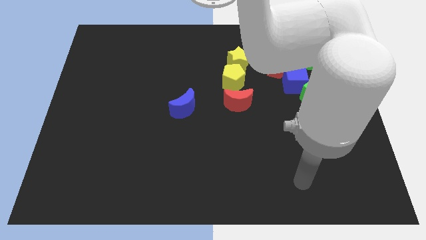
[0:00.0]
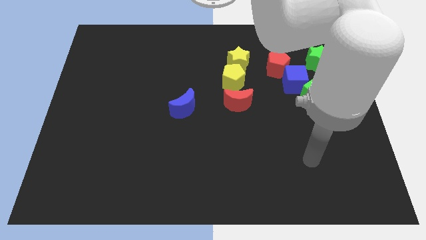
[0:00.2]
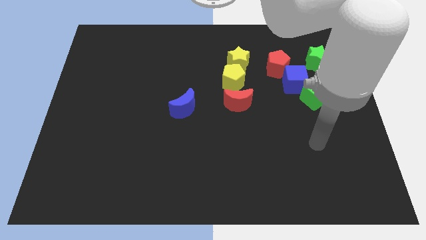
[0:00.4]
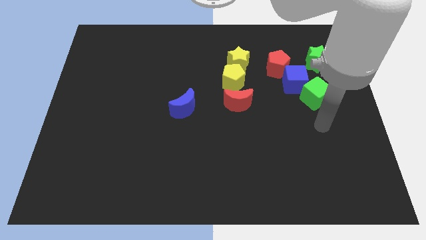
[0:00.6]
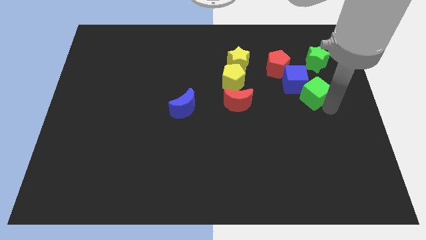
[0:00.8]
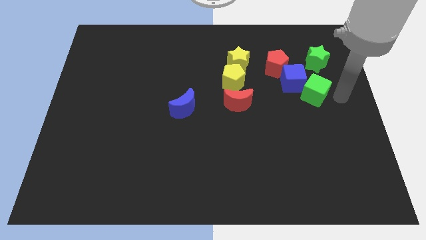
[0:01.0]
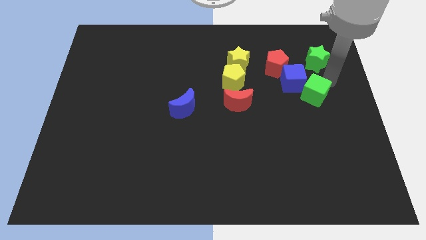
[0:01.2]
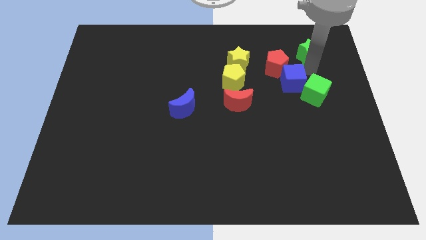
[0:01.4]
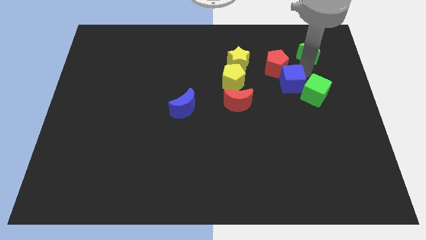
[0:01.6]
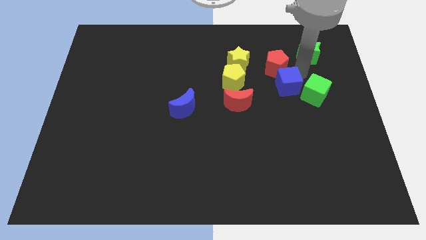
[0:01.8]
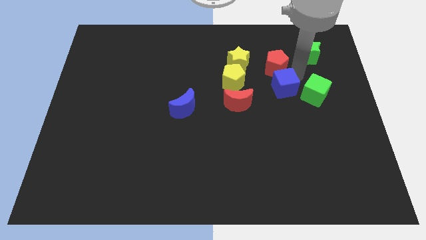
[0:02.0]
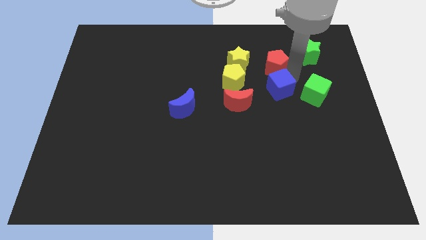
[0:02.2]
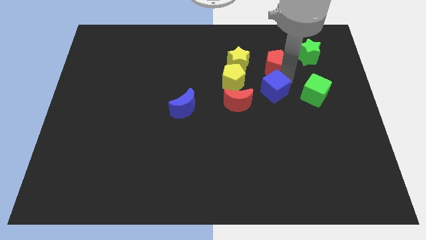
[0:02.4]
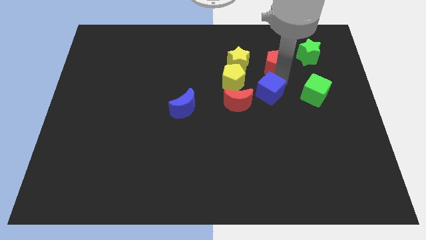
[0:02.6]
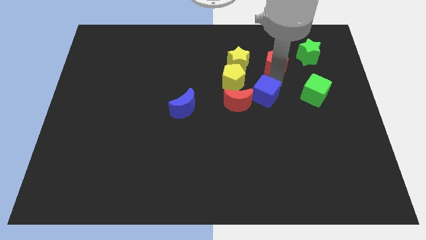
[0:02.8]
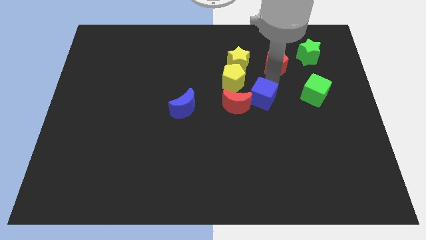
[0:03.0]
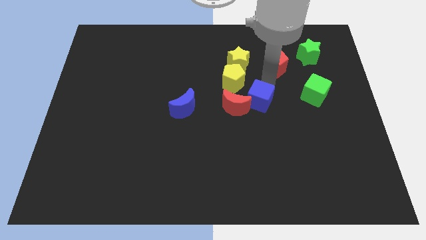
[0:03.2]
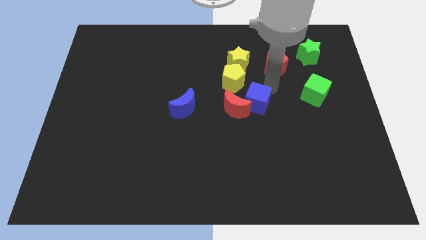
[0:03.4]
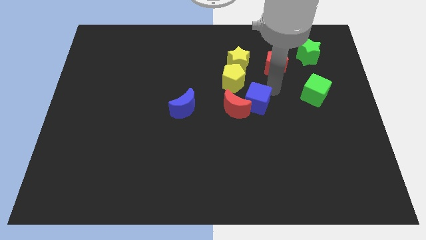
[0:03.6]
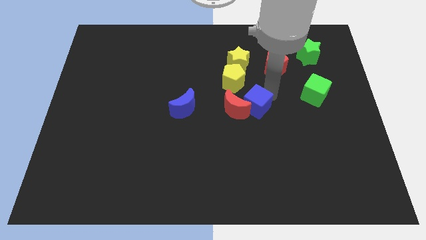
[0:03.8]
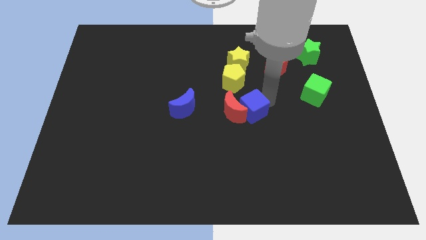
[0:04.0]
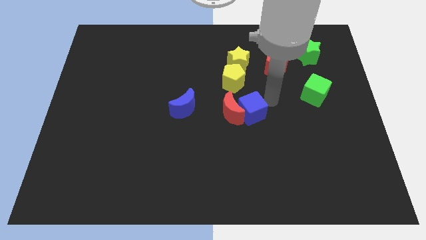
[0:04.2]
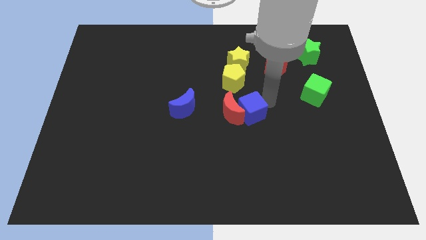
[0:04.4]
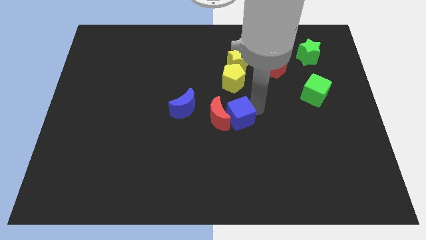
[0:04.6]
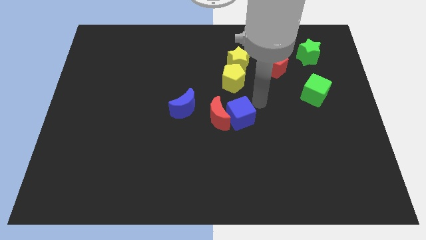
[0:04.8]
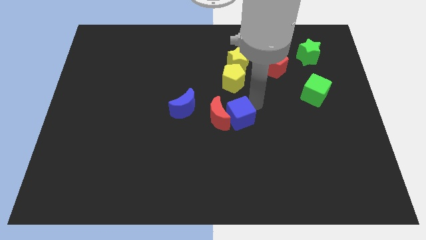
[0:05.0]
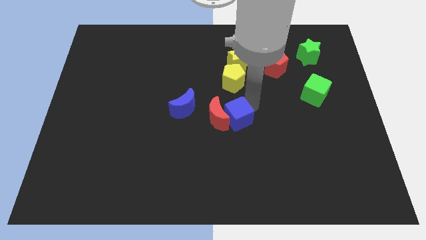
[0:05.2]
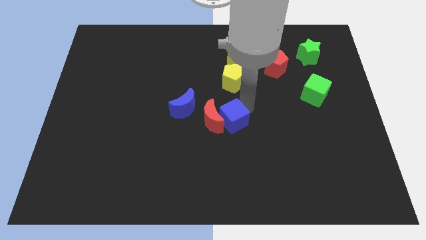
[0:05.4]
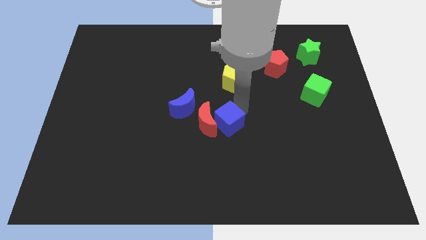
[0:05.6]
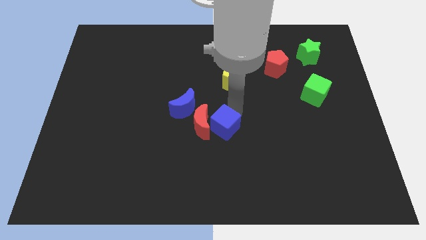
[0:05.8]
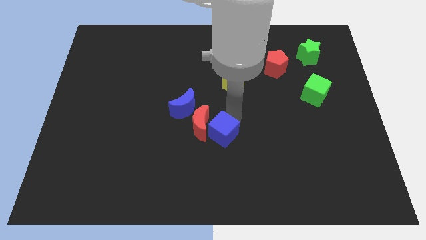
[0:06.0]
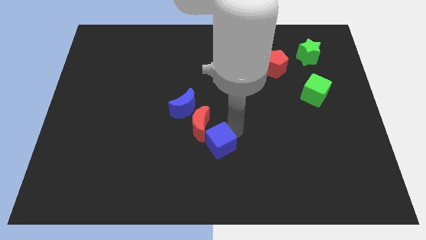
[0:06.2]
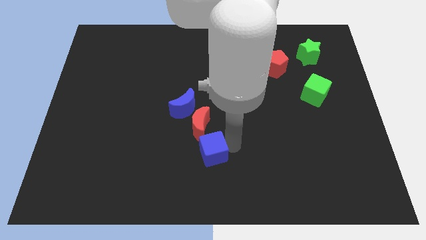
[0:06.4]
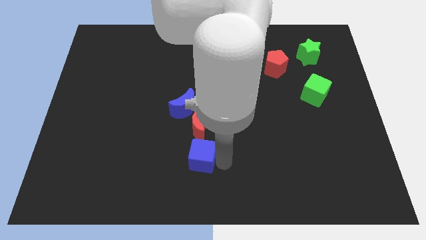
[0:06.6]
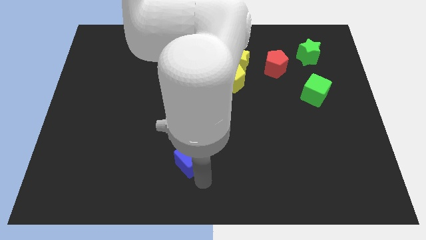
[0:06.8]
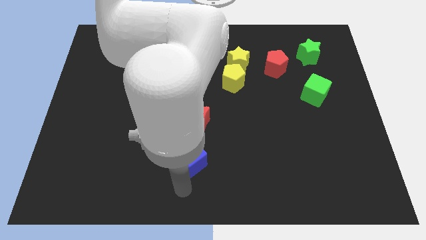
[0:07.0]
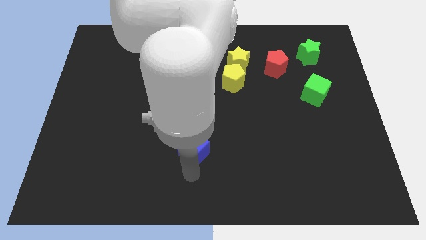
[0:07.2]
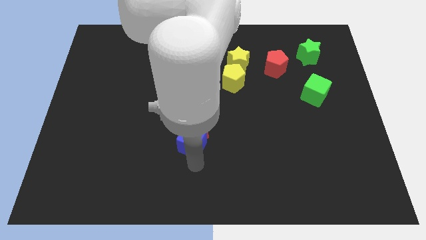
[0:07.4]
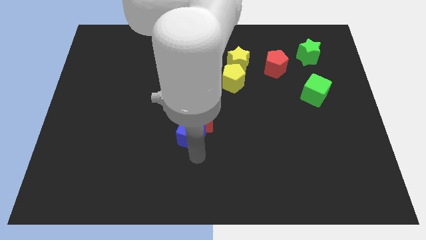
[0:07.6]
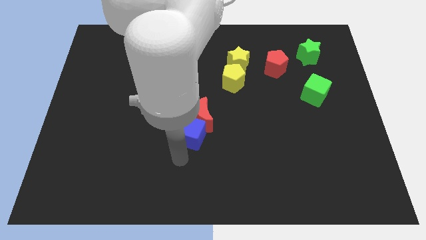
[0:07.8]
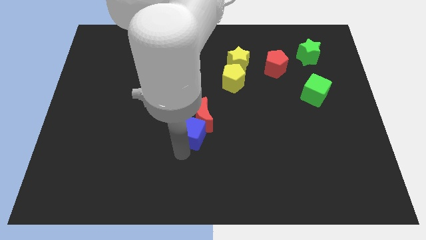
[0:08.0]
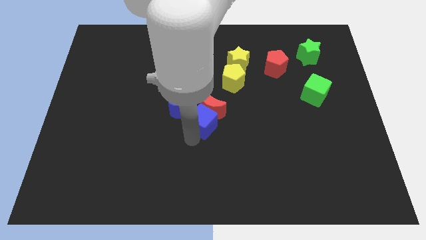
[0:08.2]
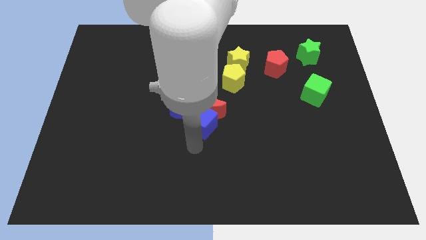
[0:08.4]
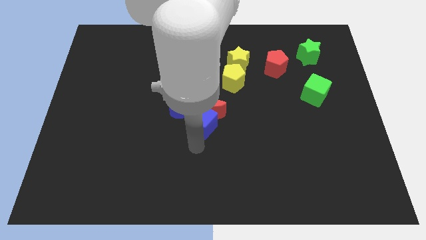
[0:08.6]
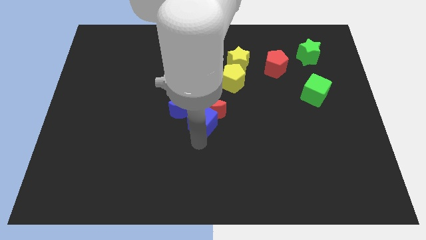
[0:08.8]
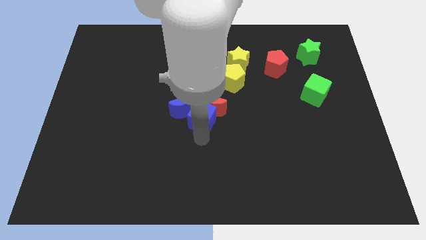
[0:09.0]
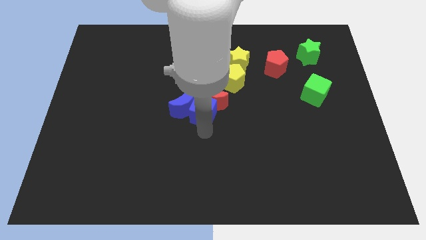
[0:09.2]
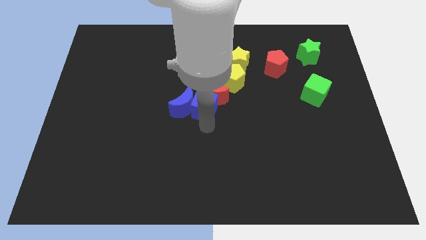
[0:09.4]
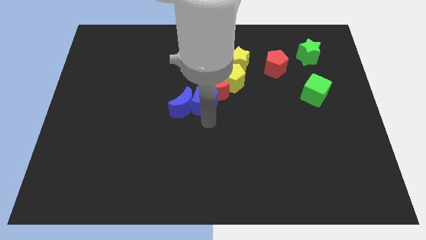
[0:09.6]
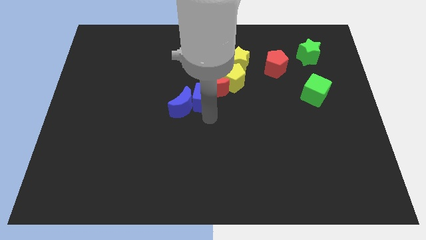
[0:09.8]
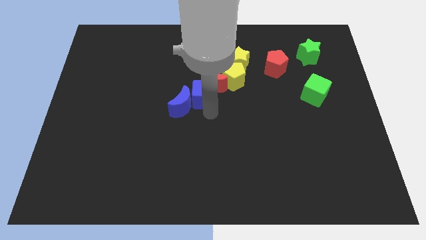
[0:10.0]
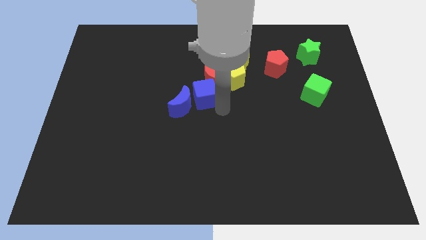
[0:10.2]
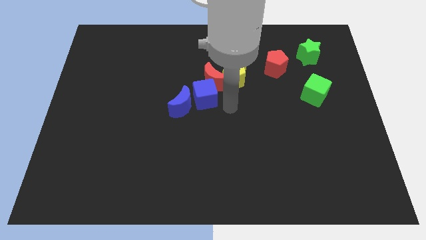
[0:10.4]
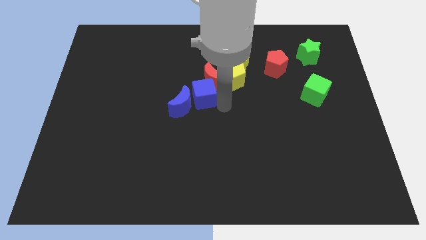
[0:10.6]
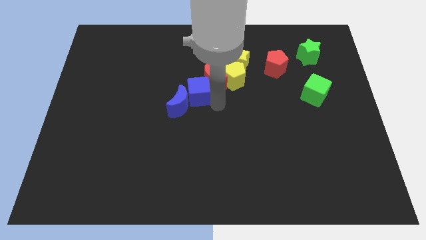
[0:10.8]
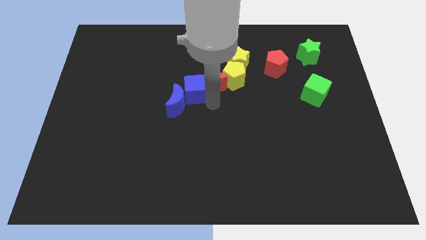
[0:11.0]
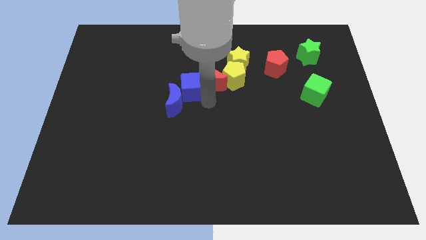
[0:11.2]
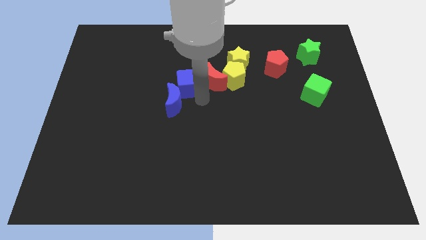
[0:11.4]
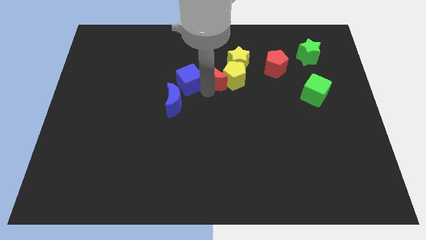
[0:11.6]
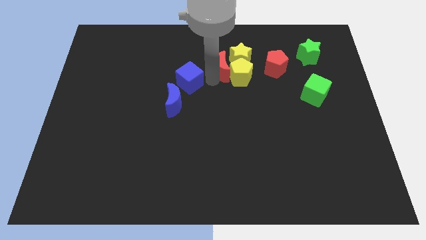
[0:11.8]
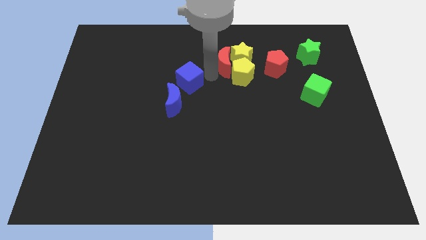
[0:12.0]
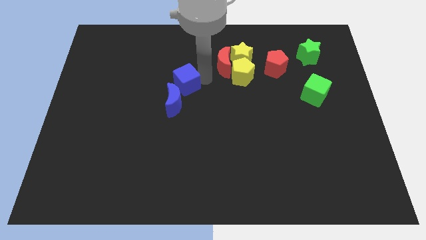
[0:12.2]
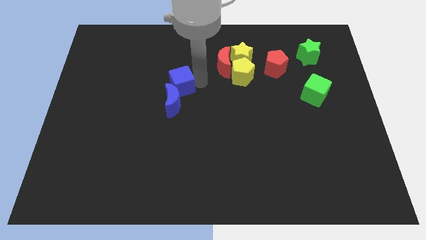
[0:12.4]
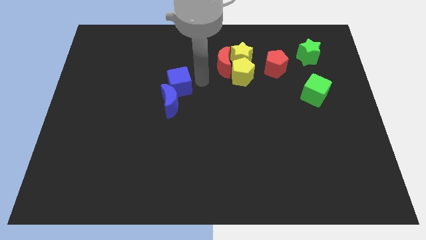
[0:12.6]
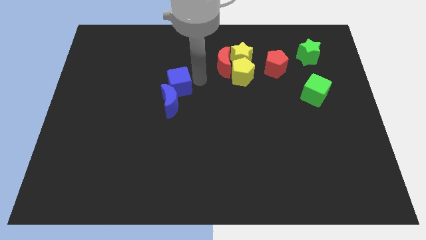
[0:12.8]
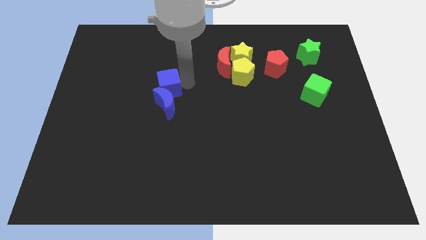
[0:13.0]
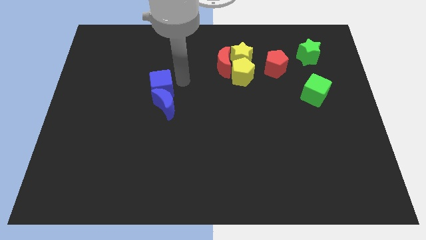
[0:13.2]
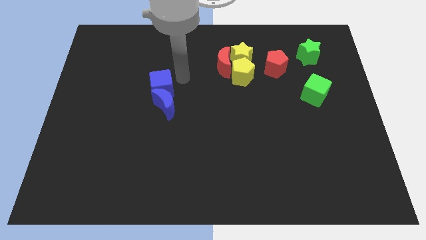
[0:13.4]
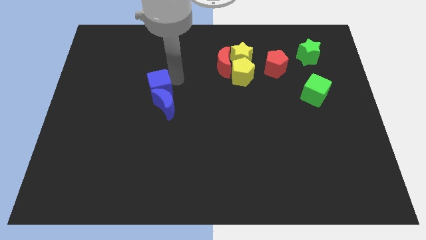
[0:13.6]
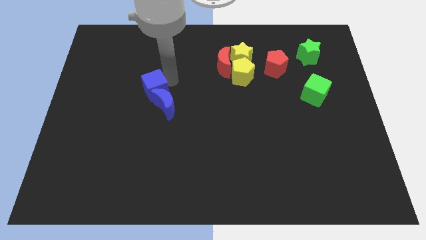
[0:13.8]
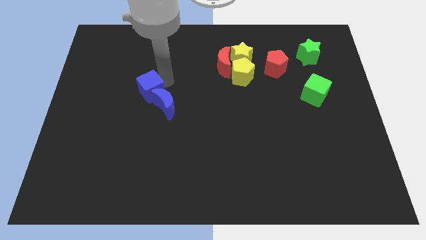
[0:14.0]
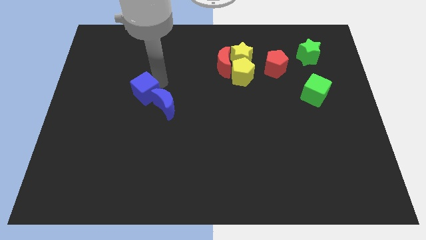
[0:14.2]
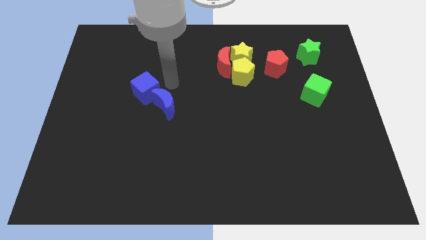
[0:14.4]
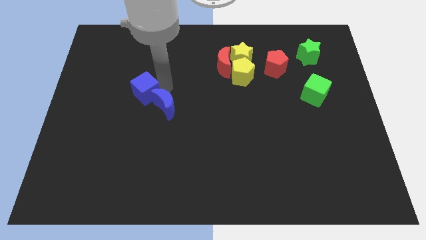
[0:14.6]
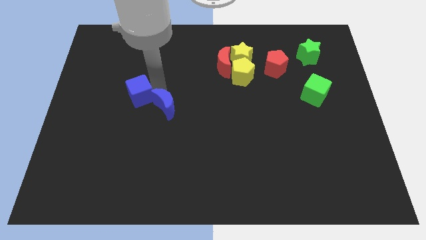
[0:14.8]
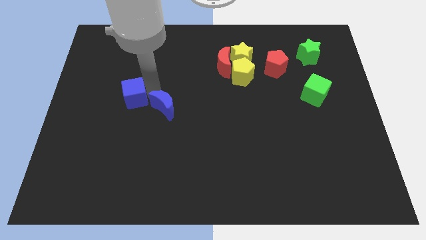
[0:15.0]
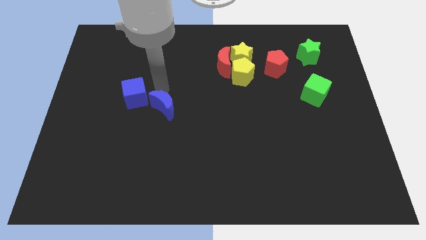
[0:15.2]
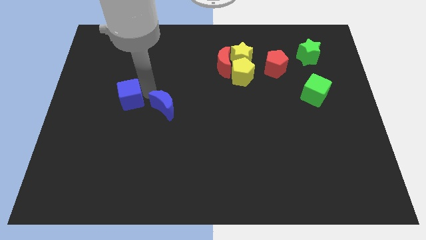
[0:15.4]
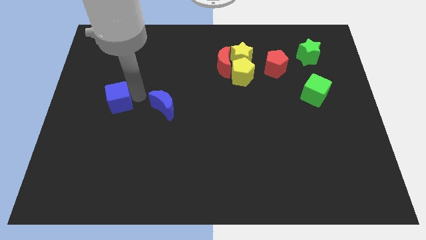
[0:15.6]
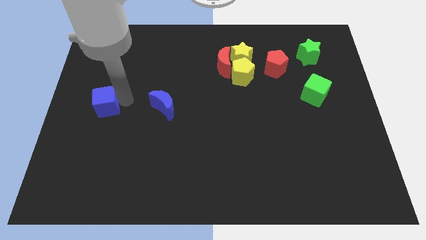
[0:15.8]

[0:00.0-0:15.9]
put the blue cube to the left side of the board
